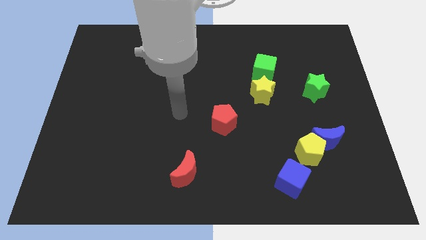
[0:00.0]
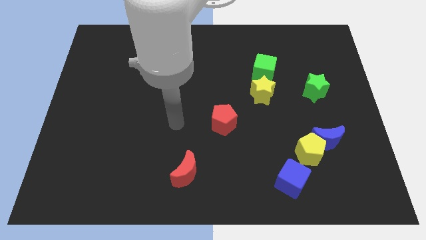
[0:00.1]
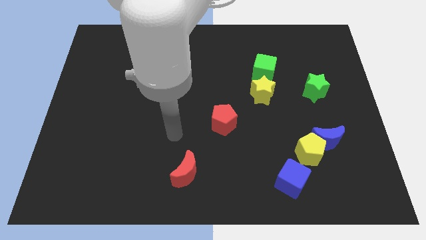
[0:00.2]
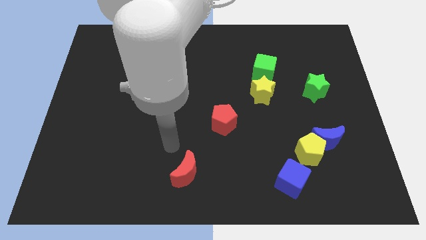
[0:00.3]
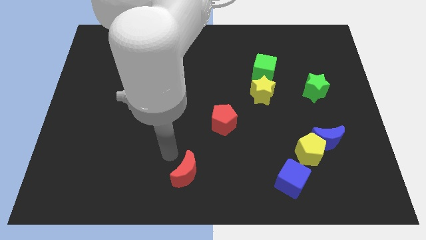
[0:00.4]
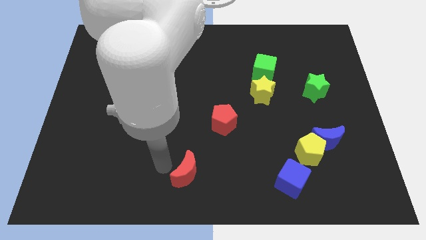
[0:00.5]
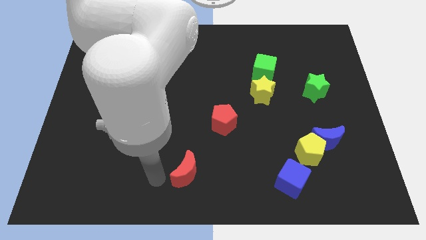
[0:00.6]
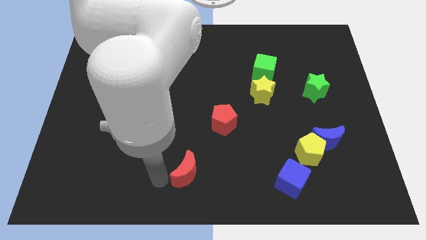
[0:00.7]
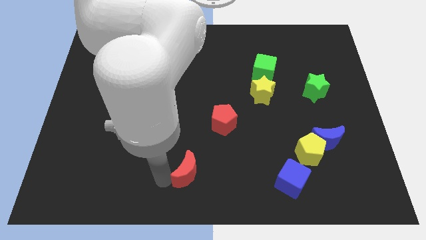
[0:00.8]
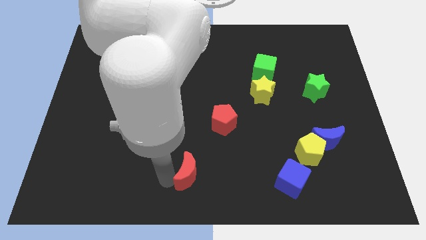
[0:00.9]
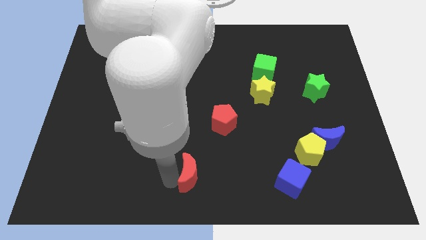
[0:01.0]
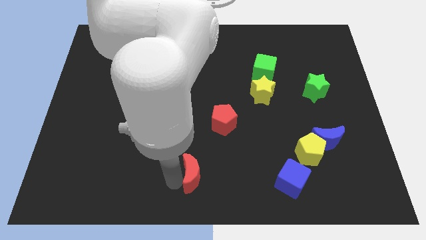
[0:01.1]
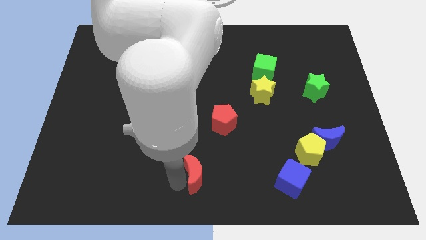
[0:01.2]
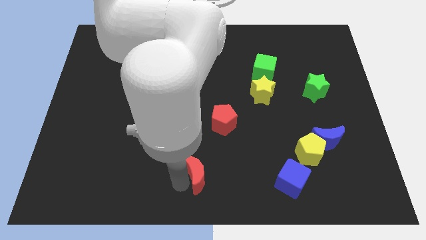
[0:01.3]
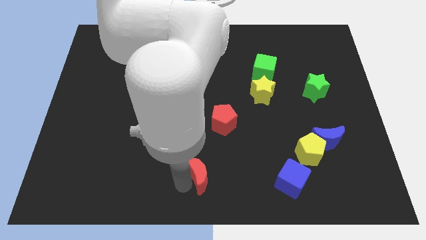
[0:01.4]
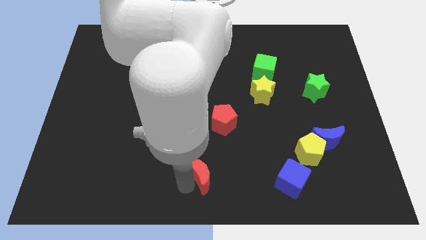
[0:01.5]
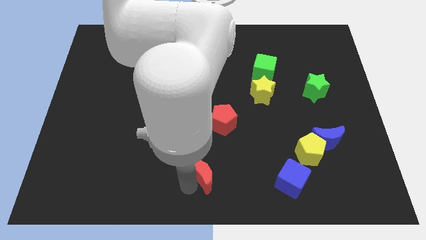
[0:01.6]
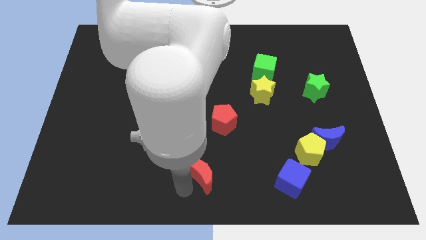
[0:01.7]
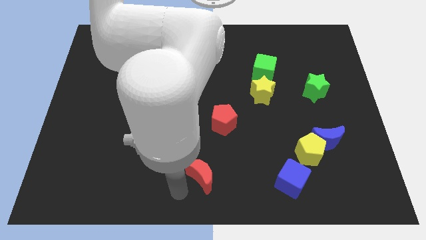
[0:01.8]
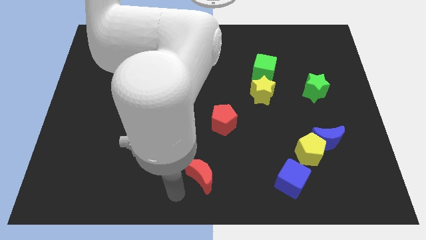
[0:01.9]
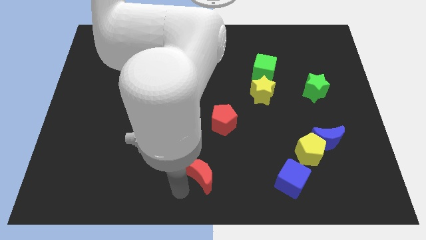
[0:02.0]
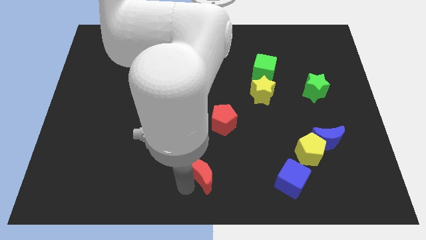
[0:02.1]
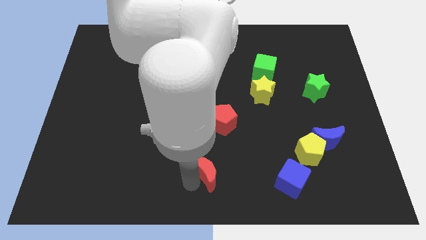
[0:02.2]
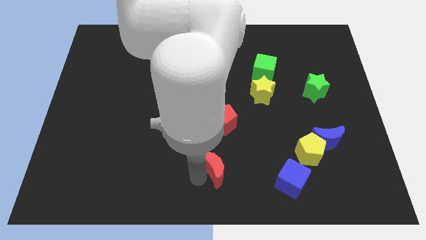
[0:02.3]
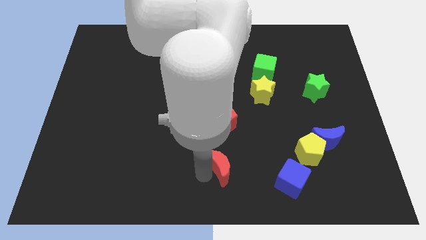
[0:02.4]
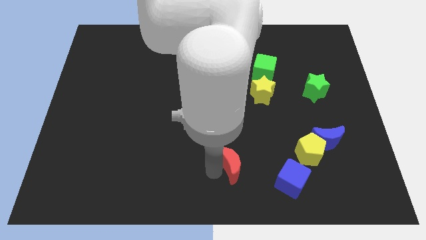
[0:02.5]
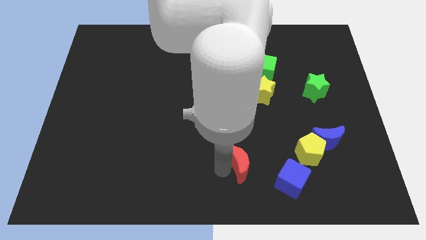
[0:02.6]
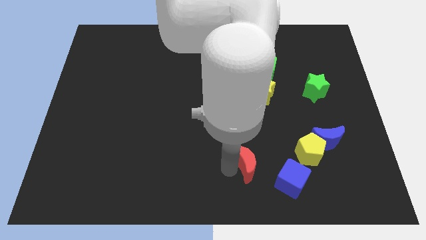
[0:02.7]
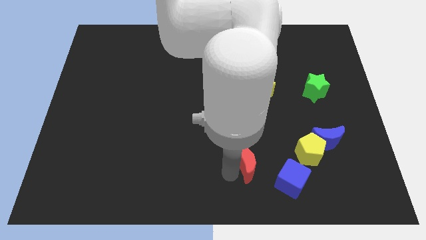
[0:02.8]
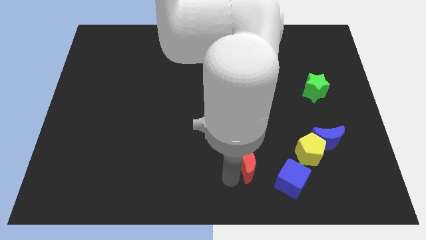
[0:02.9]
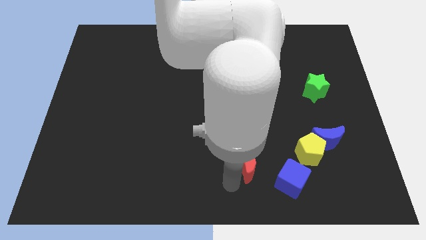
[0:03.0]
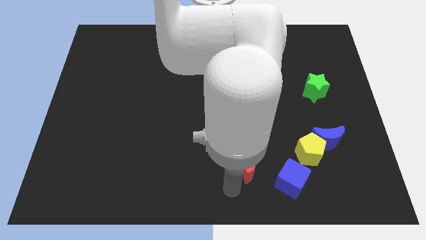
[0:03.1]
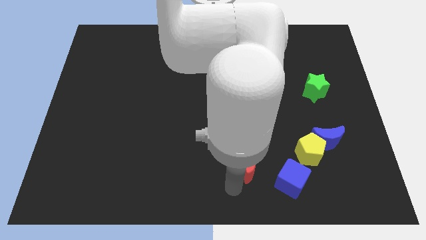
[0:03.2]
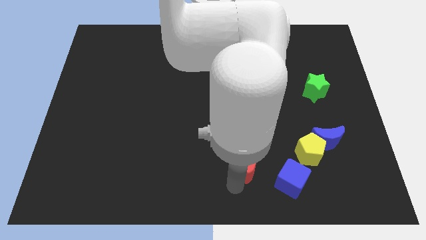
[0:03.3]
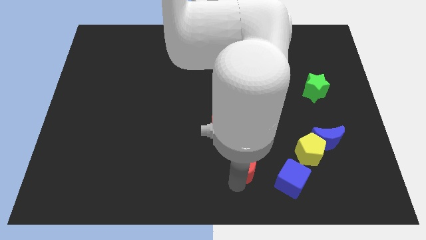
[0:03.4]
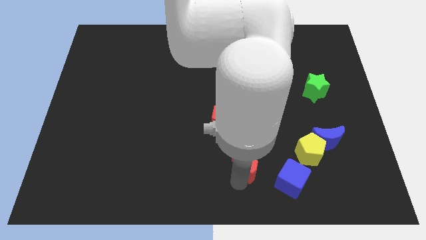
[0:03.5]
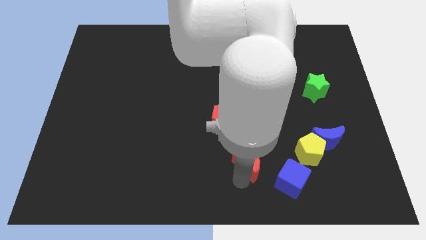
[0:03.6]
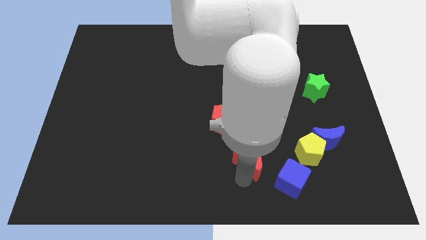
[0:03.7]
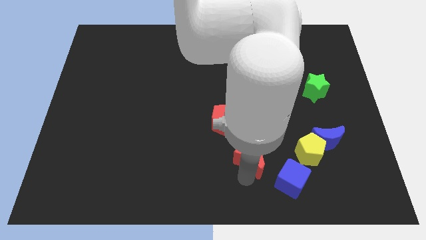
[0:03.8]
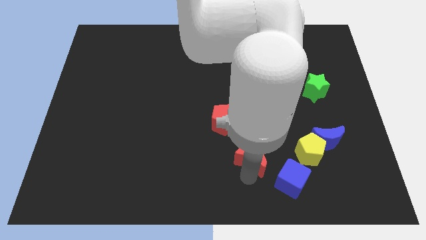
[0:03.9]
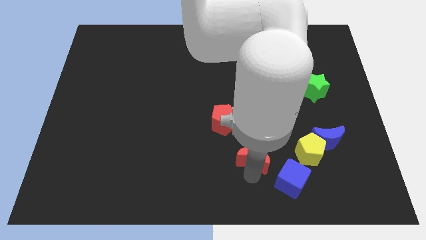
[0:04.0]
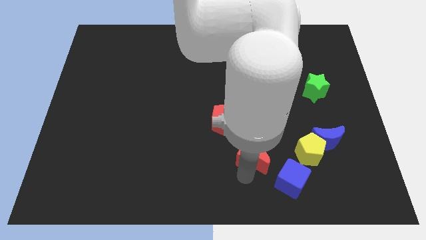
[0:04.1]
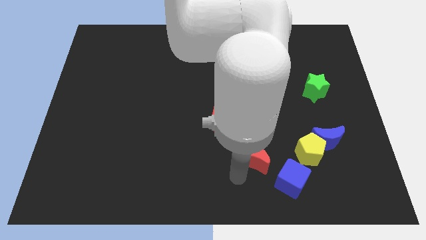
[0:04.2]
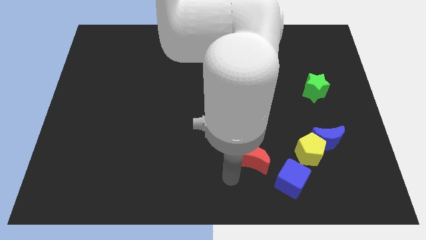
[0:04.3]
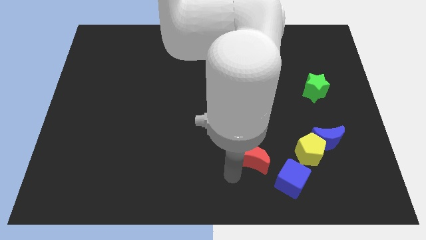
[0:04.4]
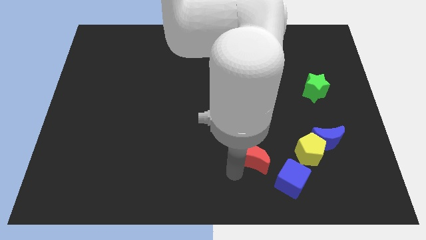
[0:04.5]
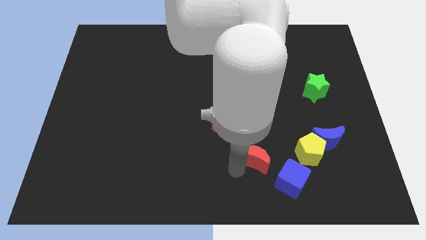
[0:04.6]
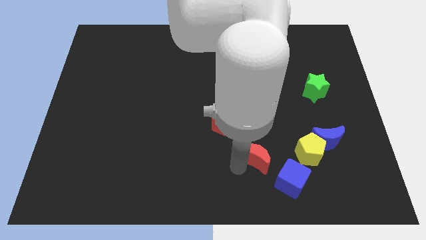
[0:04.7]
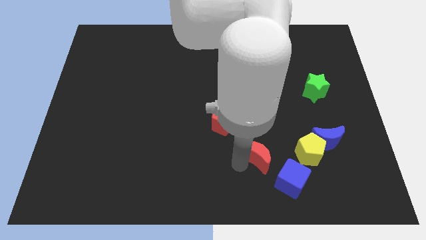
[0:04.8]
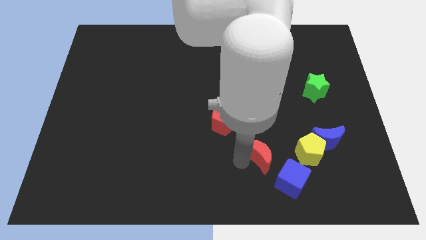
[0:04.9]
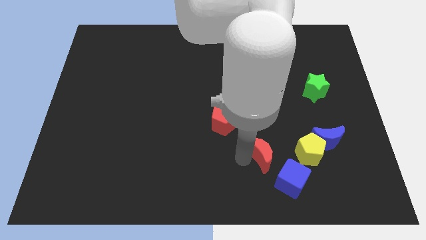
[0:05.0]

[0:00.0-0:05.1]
push the red moon to the left side of the blue moon

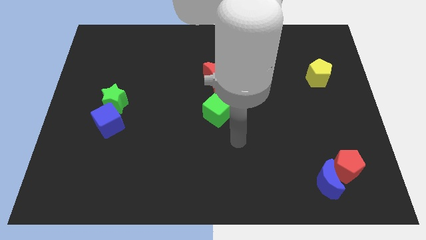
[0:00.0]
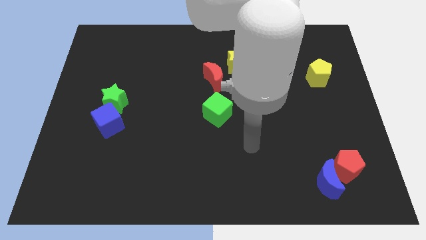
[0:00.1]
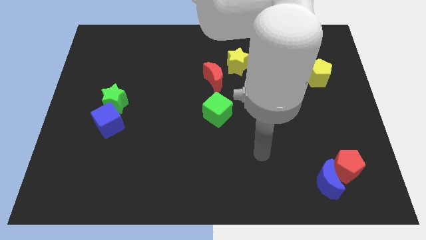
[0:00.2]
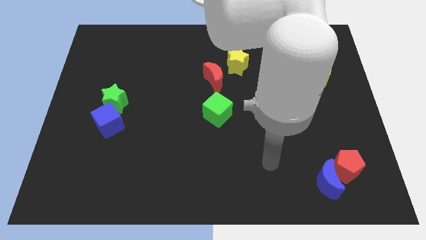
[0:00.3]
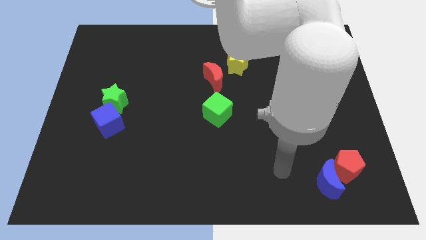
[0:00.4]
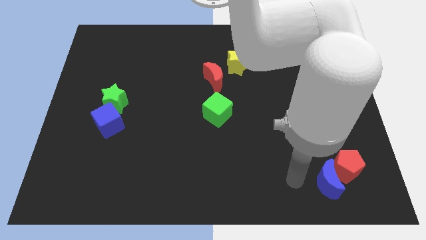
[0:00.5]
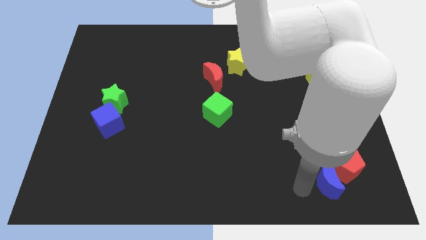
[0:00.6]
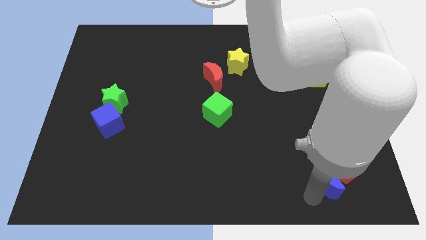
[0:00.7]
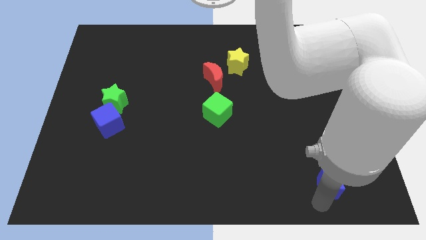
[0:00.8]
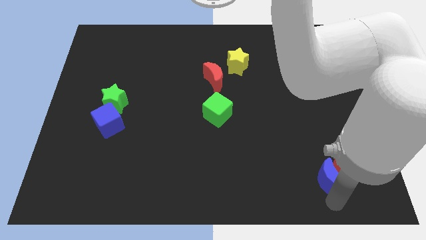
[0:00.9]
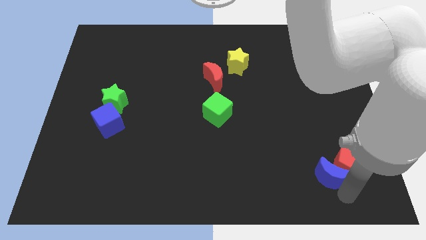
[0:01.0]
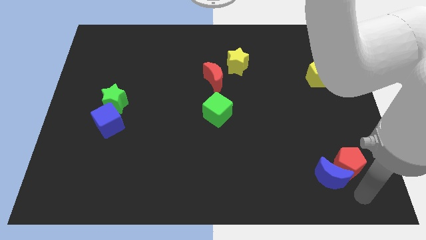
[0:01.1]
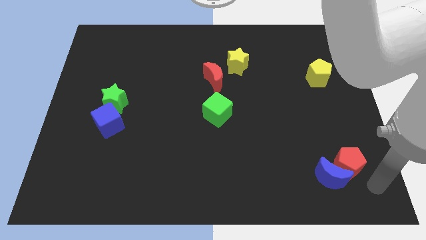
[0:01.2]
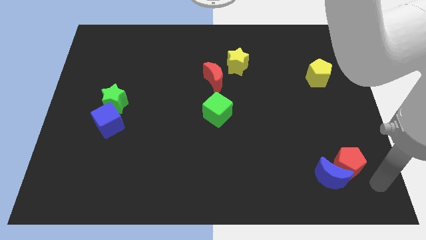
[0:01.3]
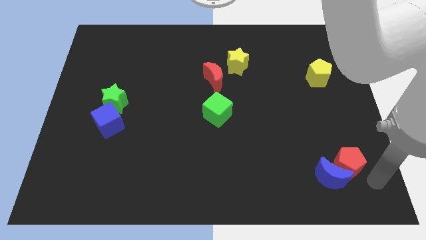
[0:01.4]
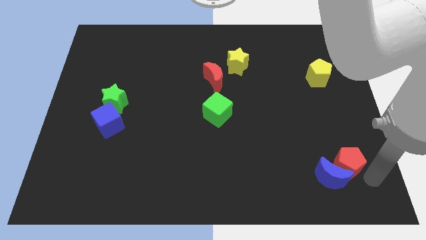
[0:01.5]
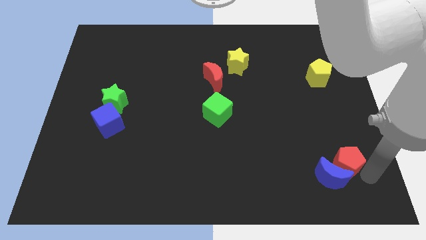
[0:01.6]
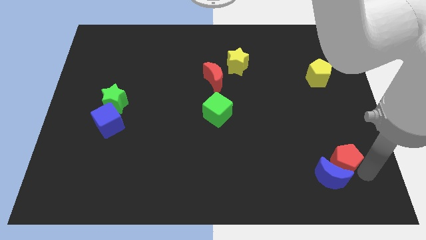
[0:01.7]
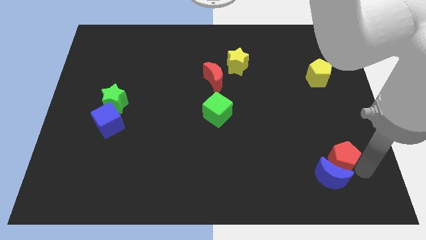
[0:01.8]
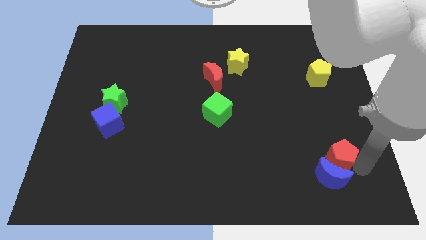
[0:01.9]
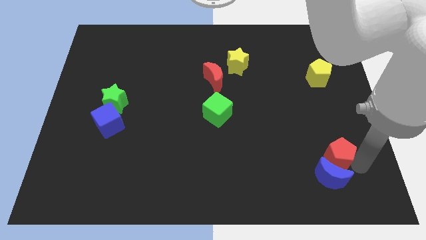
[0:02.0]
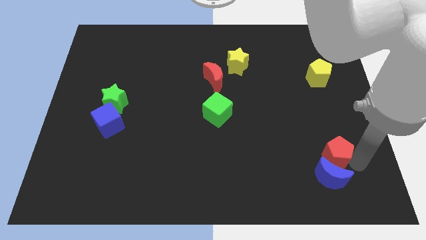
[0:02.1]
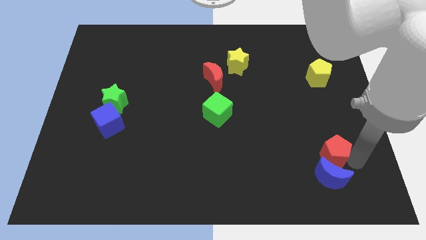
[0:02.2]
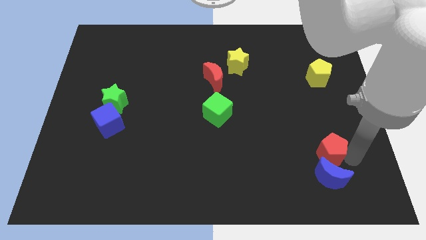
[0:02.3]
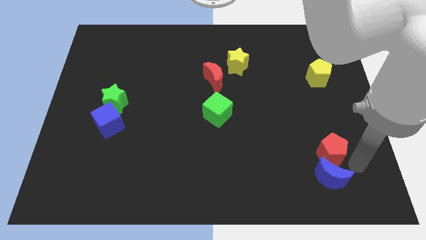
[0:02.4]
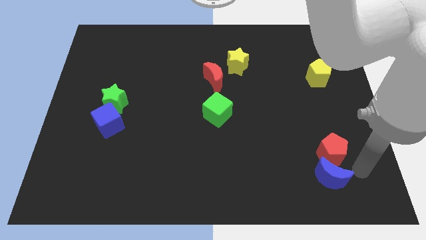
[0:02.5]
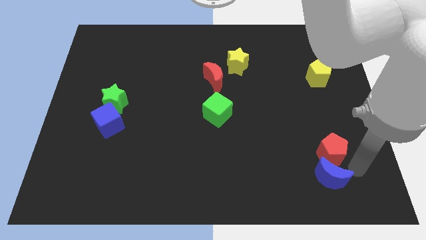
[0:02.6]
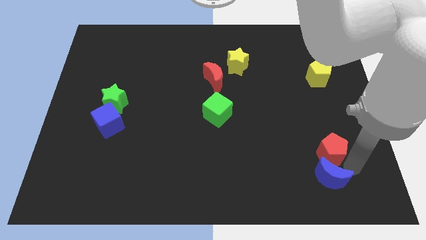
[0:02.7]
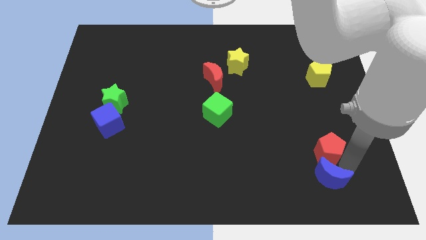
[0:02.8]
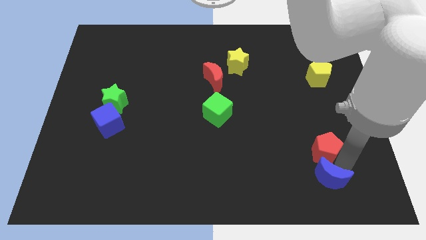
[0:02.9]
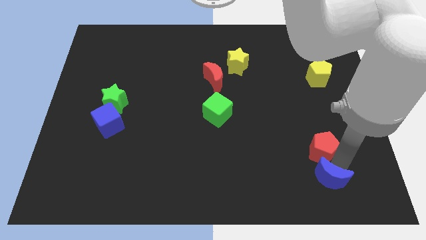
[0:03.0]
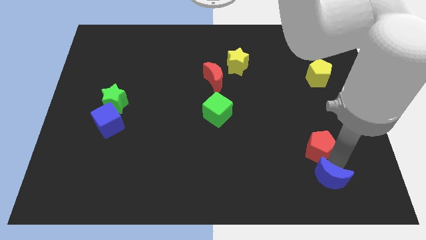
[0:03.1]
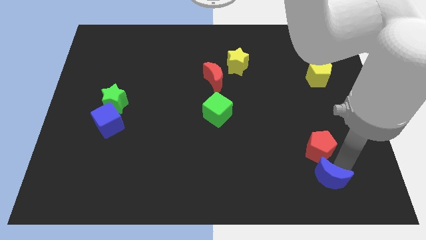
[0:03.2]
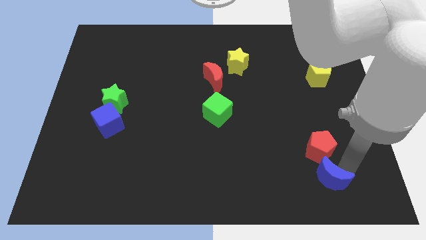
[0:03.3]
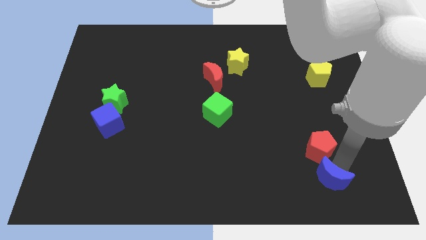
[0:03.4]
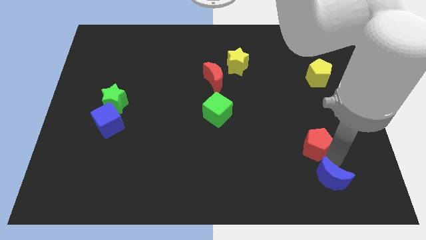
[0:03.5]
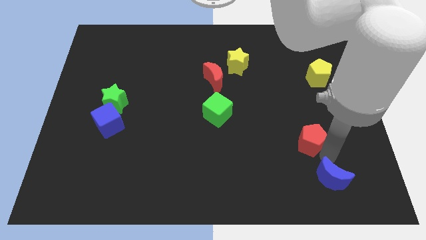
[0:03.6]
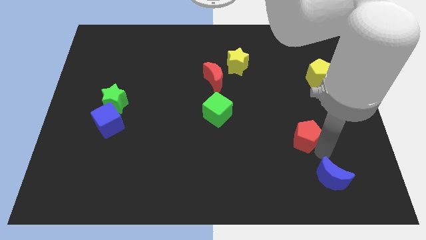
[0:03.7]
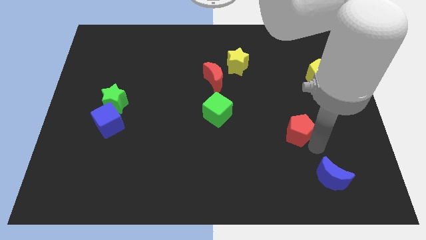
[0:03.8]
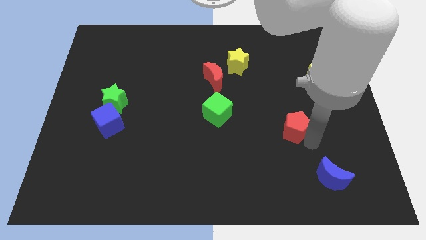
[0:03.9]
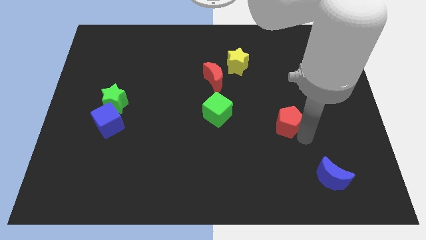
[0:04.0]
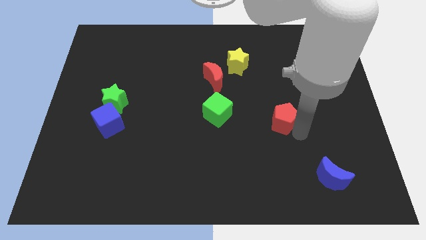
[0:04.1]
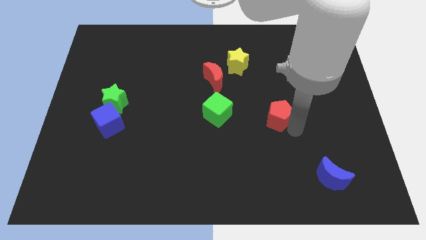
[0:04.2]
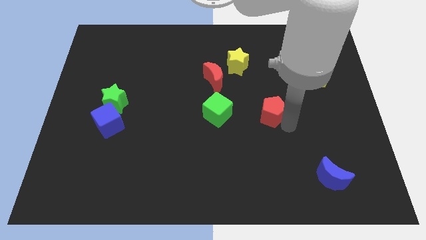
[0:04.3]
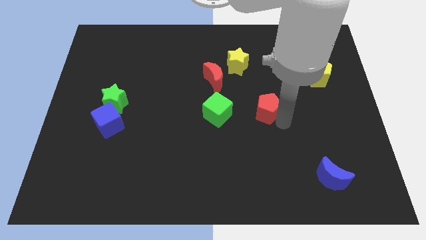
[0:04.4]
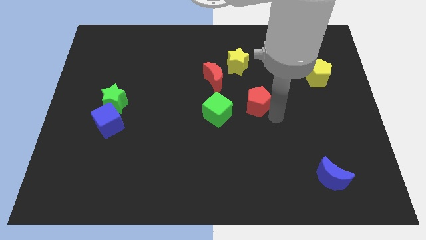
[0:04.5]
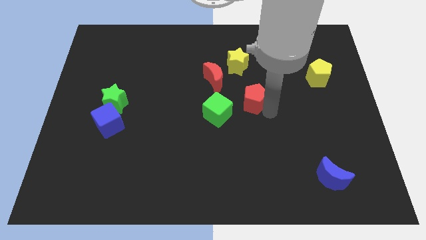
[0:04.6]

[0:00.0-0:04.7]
put the red pentagon to the top right side of the green cube
